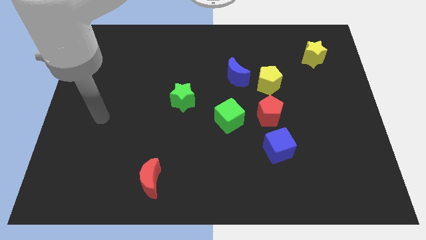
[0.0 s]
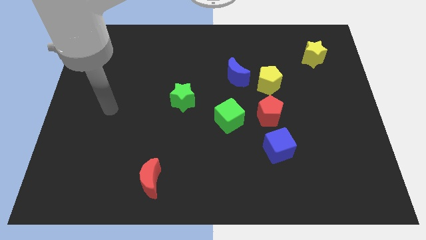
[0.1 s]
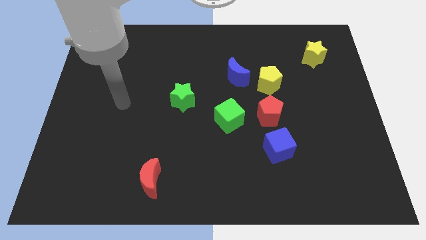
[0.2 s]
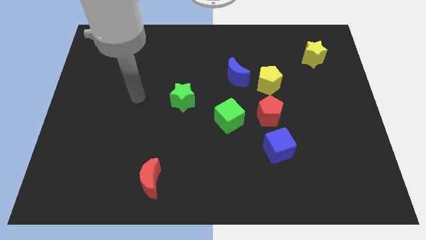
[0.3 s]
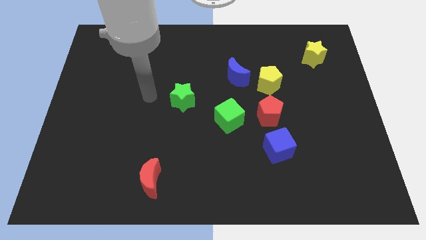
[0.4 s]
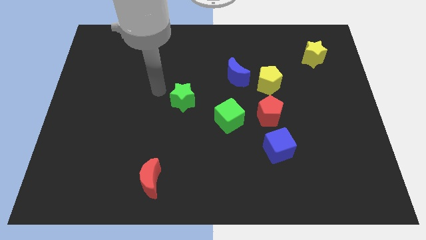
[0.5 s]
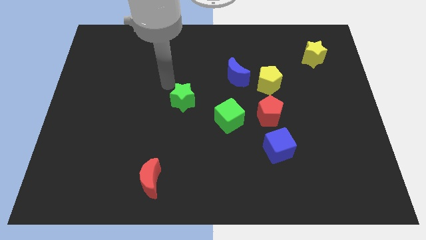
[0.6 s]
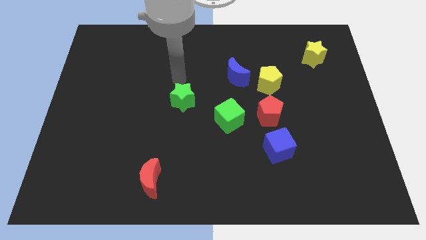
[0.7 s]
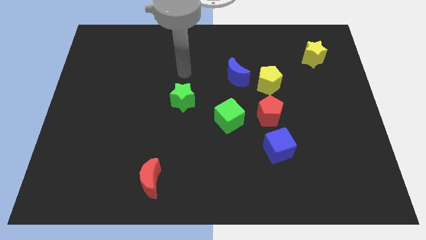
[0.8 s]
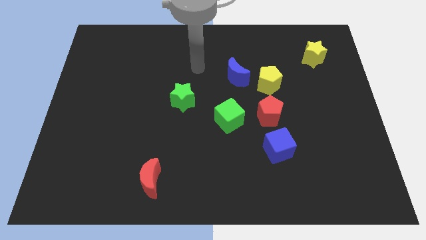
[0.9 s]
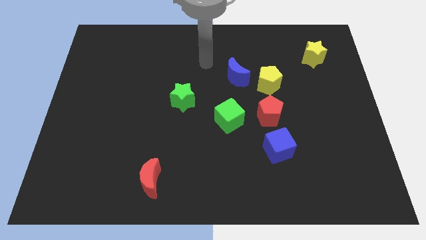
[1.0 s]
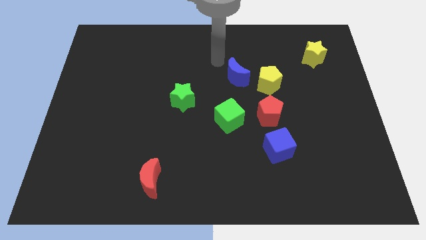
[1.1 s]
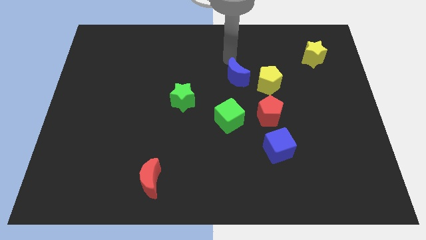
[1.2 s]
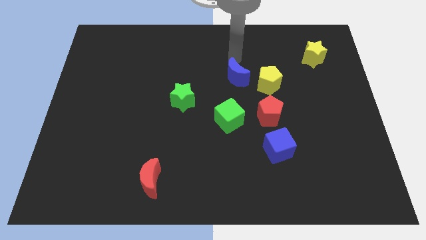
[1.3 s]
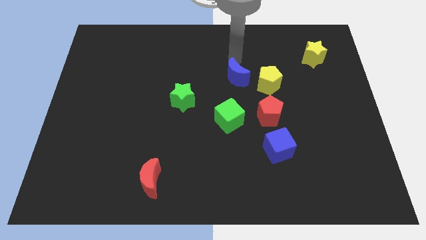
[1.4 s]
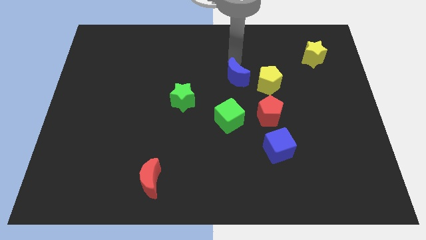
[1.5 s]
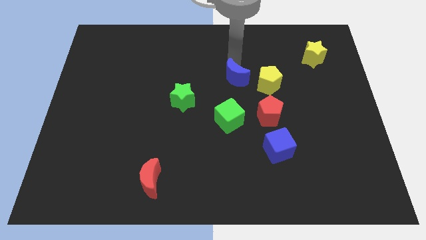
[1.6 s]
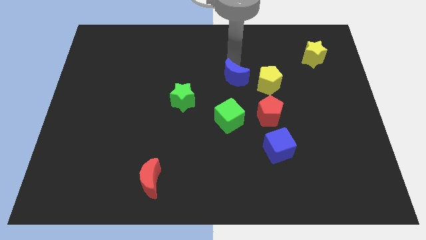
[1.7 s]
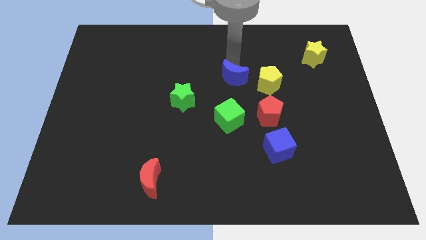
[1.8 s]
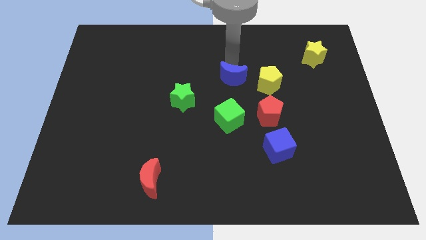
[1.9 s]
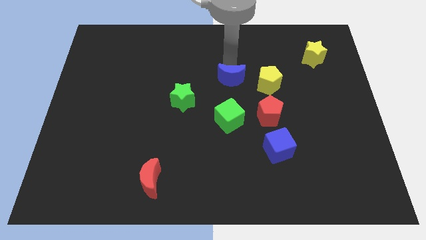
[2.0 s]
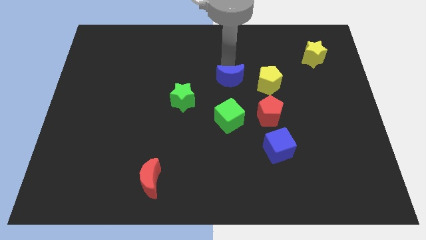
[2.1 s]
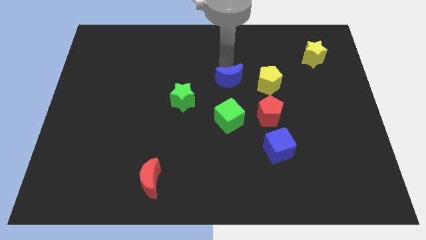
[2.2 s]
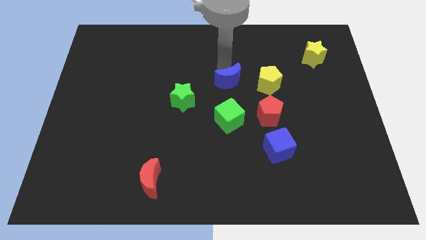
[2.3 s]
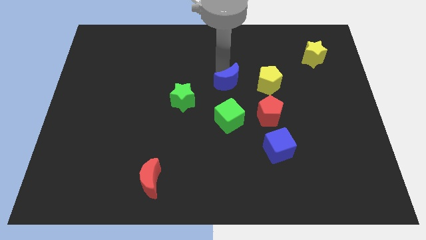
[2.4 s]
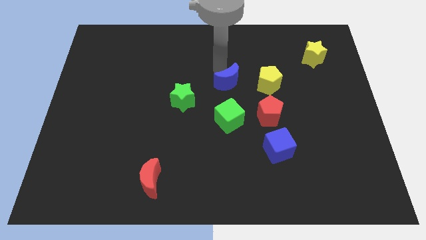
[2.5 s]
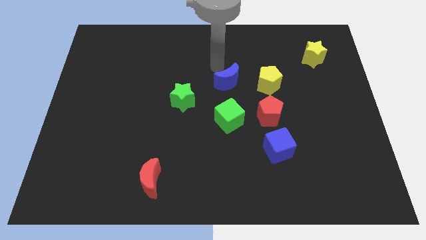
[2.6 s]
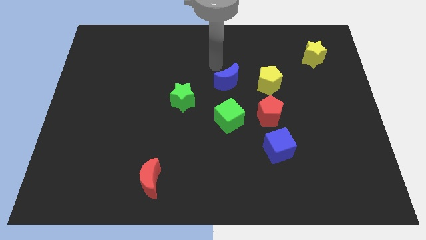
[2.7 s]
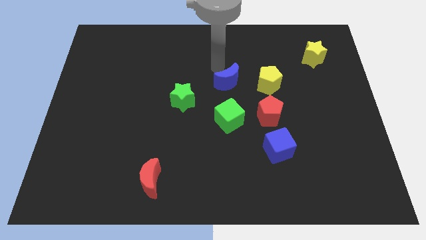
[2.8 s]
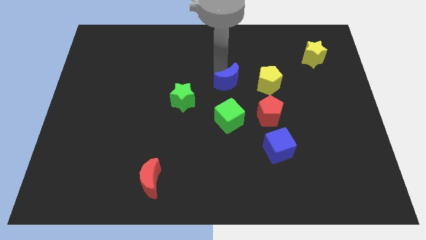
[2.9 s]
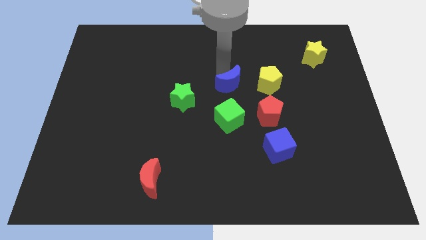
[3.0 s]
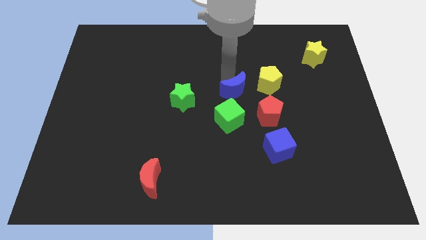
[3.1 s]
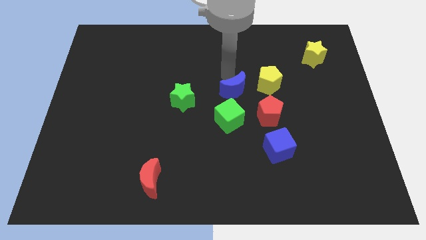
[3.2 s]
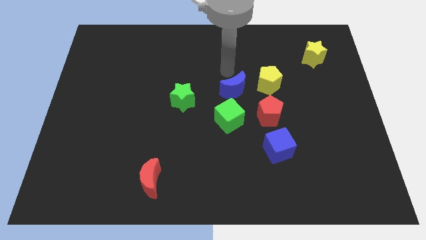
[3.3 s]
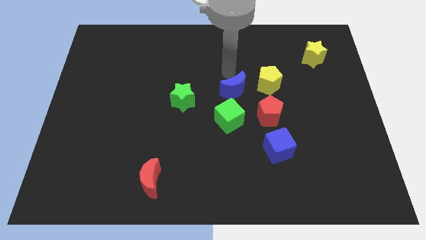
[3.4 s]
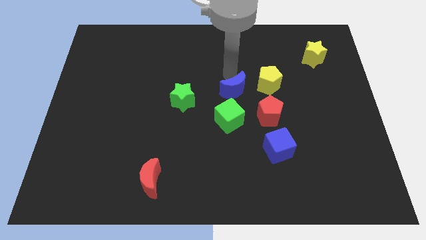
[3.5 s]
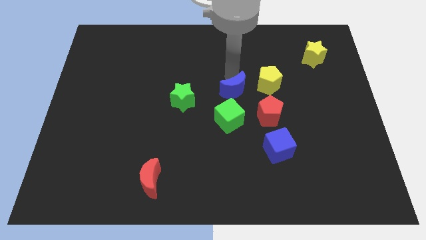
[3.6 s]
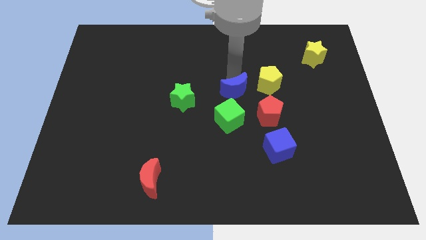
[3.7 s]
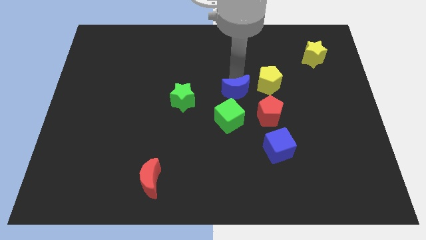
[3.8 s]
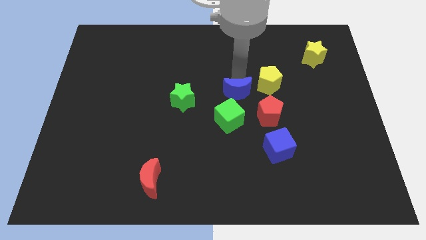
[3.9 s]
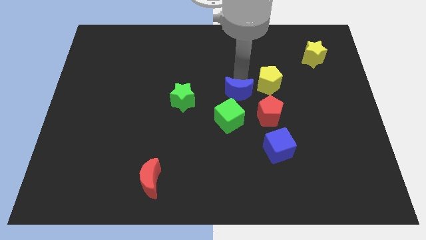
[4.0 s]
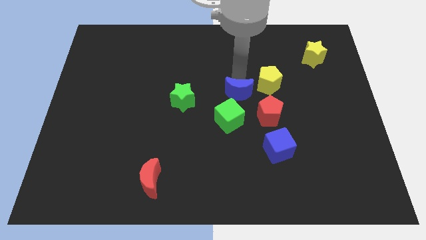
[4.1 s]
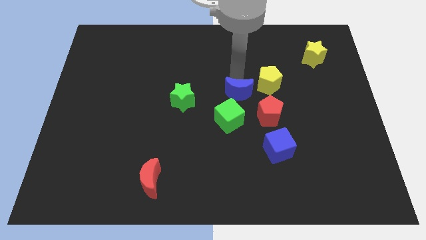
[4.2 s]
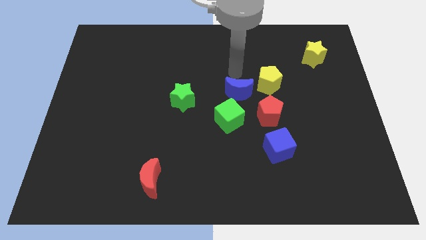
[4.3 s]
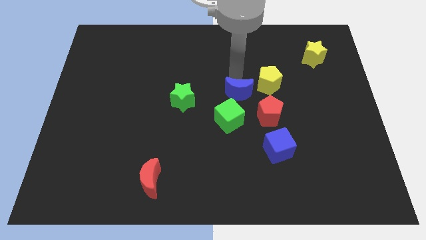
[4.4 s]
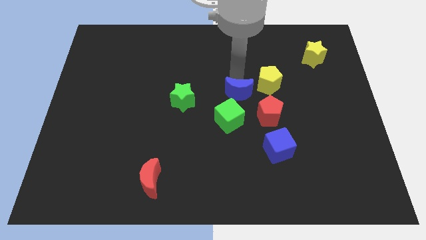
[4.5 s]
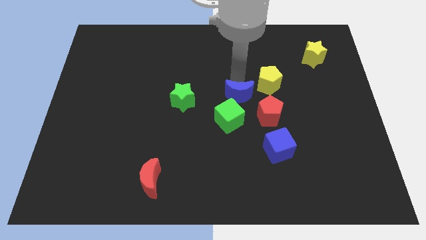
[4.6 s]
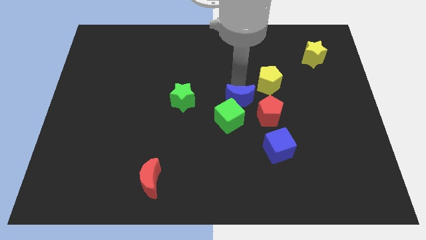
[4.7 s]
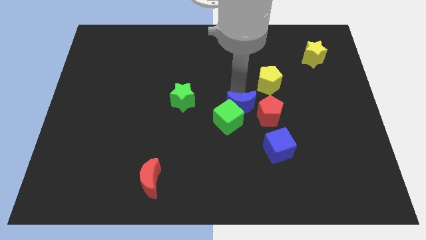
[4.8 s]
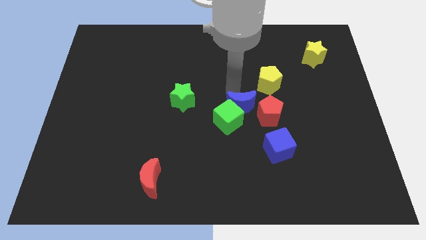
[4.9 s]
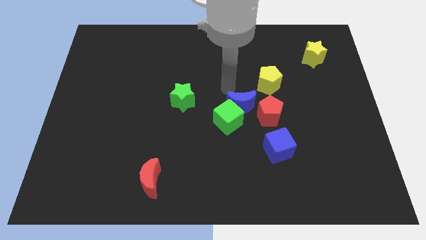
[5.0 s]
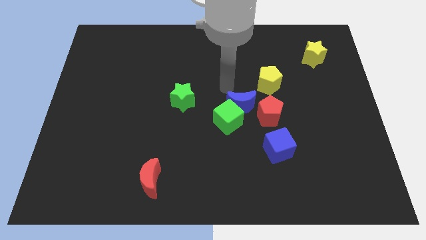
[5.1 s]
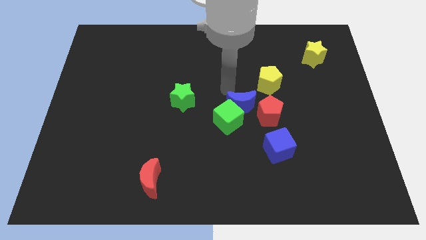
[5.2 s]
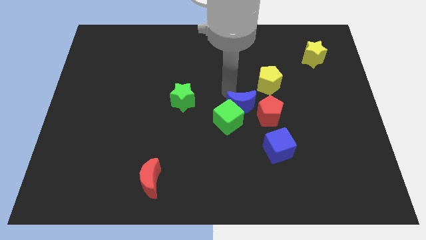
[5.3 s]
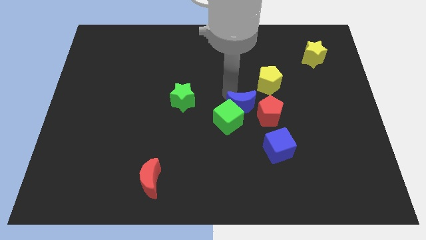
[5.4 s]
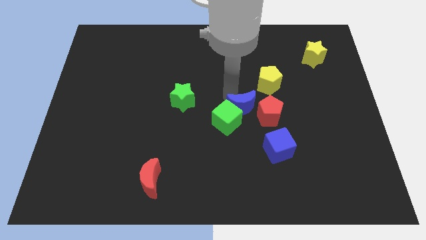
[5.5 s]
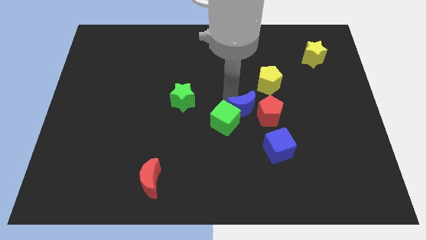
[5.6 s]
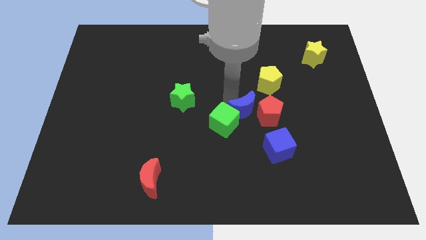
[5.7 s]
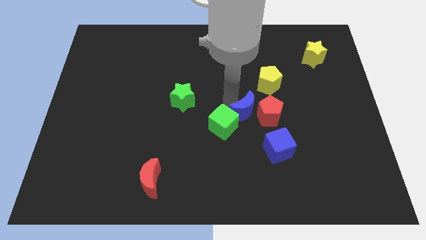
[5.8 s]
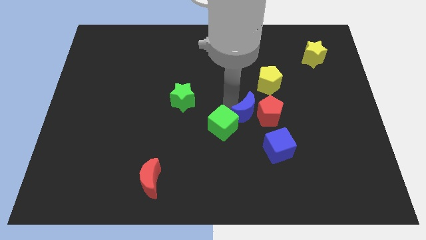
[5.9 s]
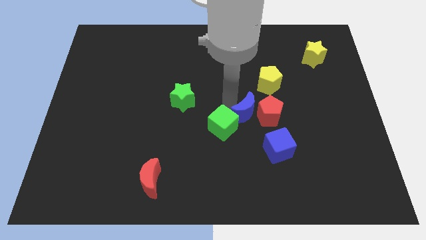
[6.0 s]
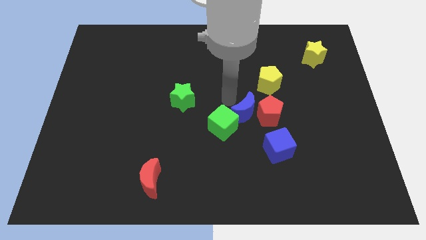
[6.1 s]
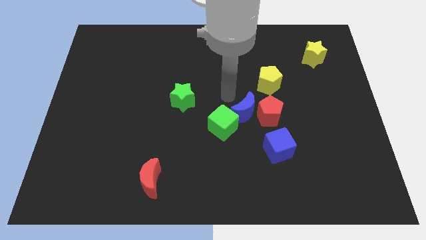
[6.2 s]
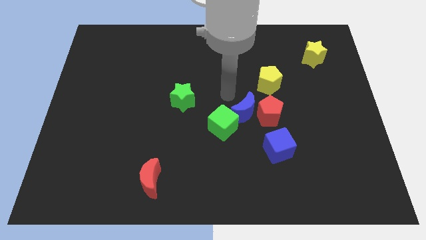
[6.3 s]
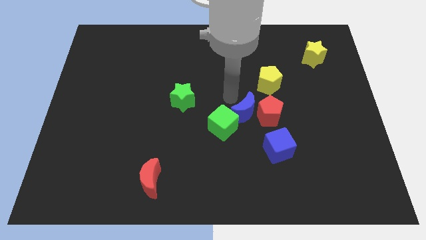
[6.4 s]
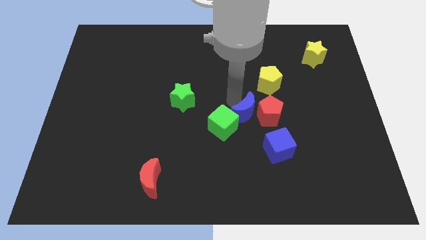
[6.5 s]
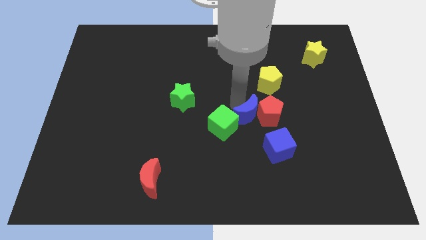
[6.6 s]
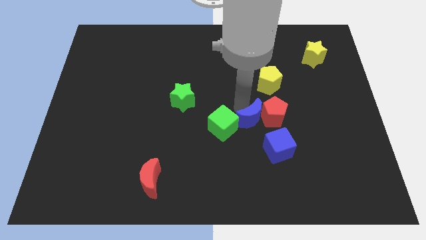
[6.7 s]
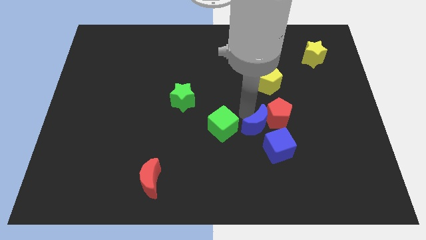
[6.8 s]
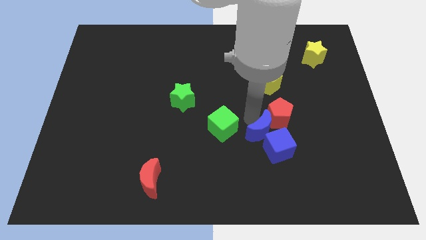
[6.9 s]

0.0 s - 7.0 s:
slide the blue moon towards the blue cube
